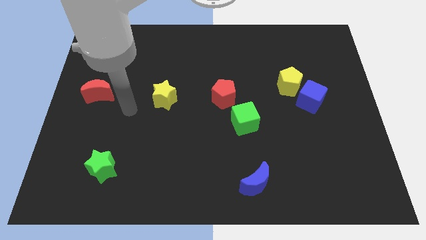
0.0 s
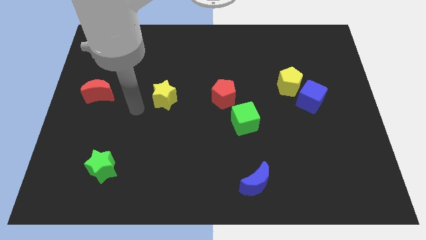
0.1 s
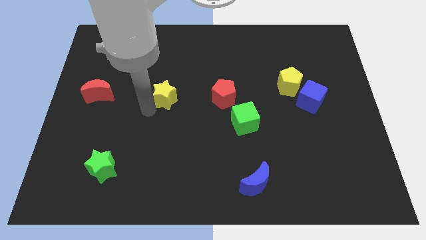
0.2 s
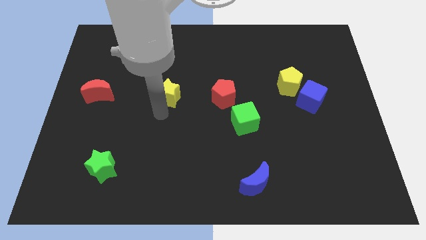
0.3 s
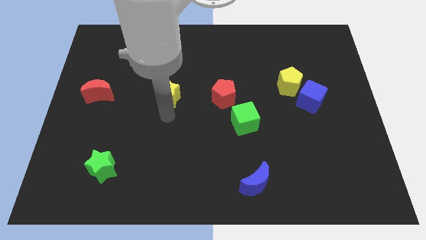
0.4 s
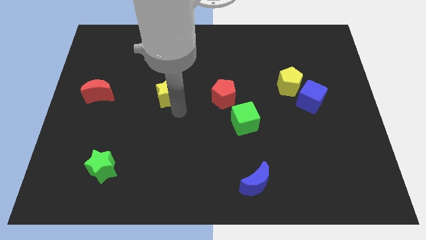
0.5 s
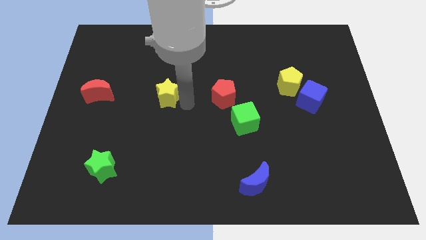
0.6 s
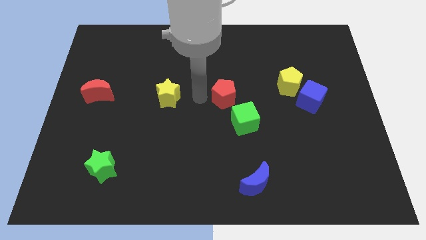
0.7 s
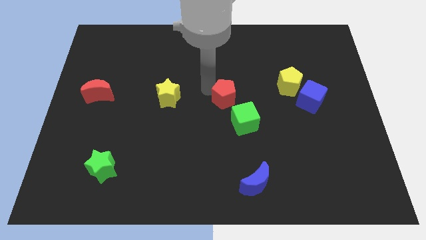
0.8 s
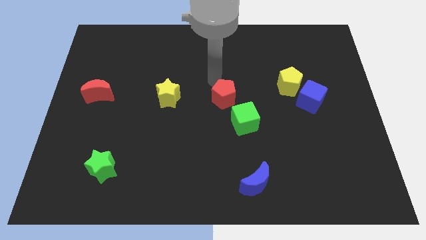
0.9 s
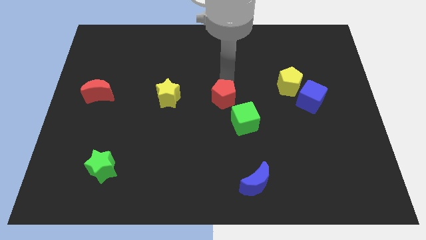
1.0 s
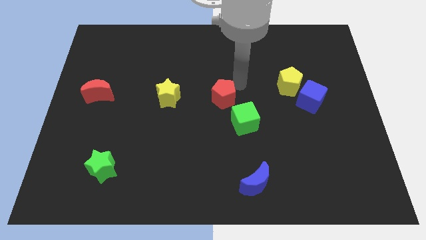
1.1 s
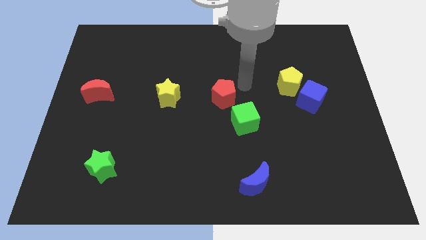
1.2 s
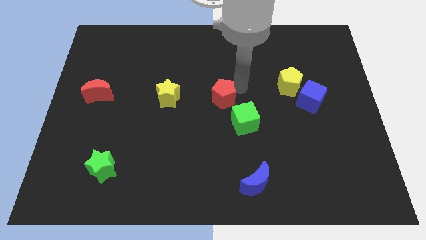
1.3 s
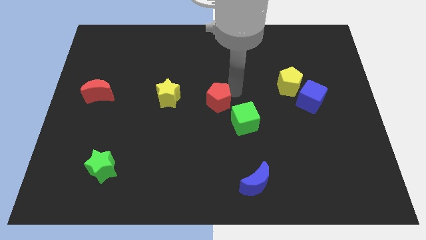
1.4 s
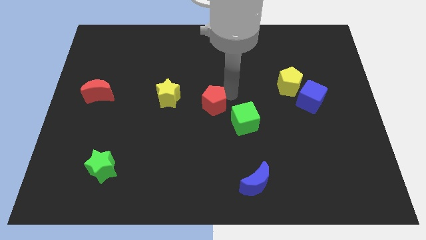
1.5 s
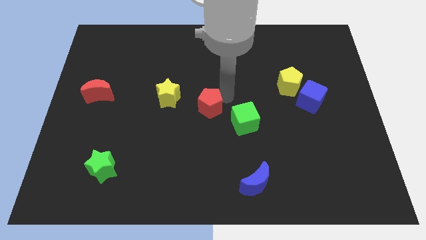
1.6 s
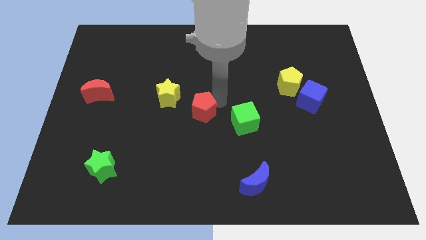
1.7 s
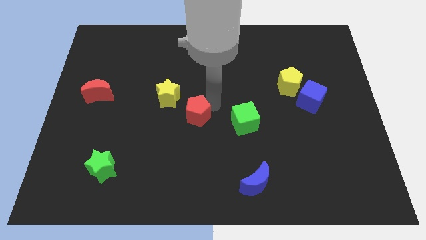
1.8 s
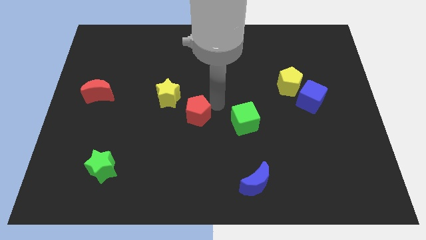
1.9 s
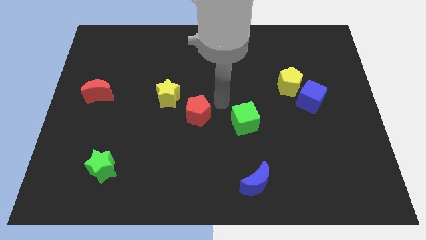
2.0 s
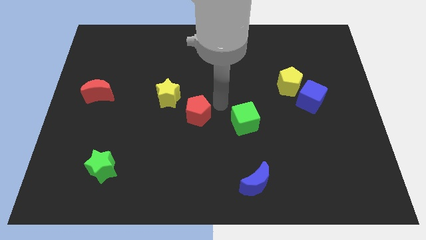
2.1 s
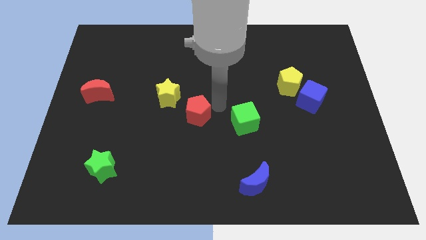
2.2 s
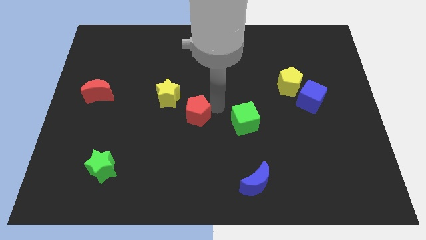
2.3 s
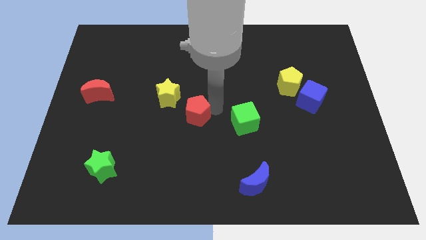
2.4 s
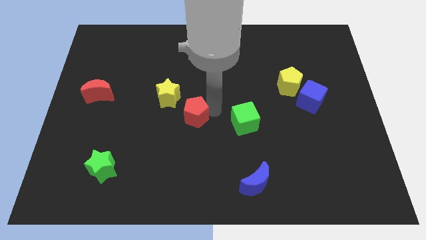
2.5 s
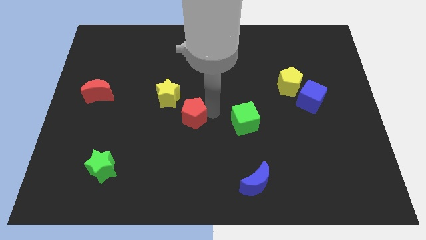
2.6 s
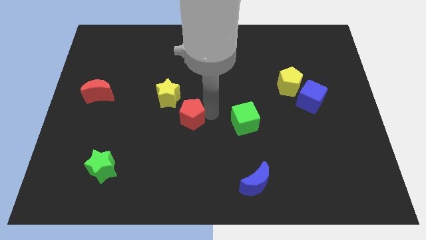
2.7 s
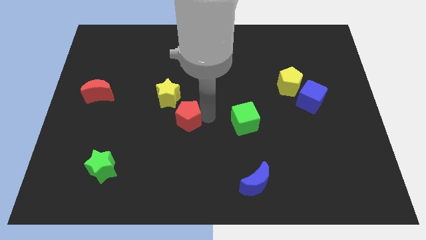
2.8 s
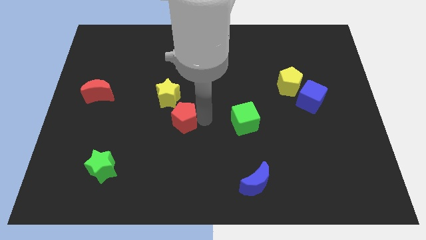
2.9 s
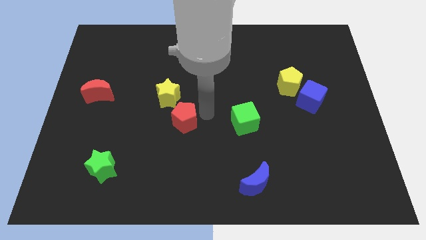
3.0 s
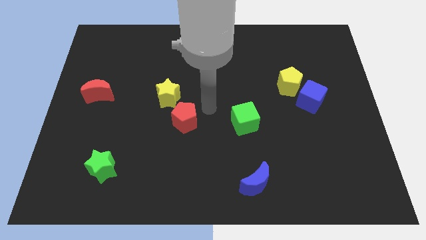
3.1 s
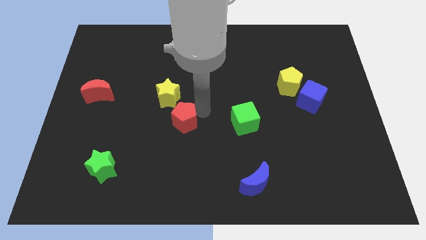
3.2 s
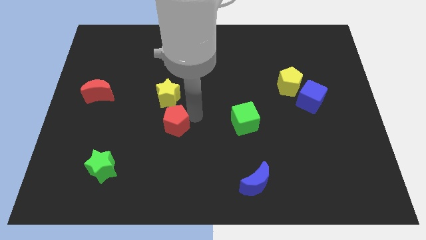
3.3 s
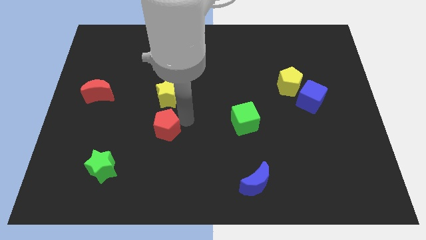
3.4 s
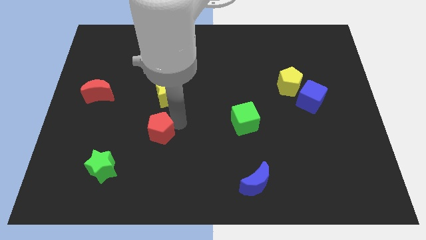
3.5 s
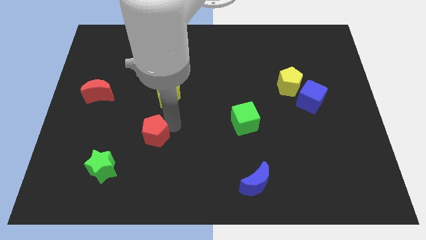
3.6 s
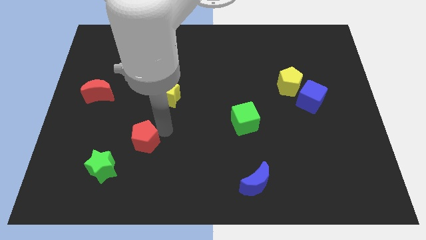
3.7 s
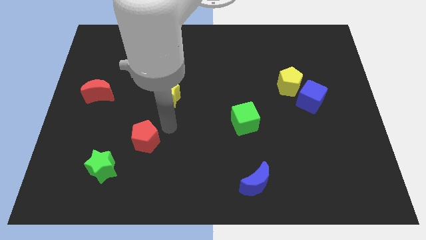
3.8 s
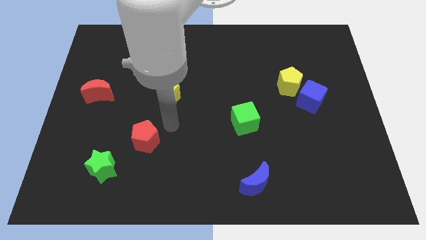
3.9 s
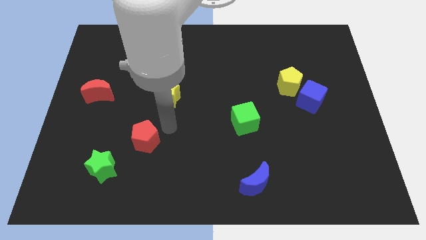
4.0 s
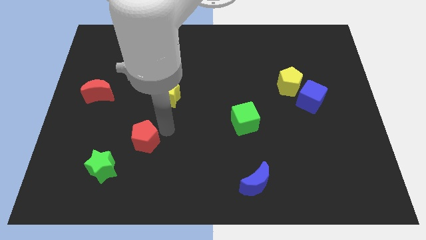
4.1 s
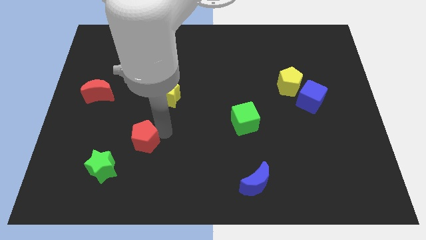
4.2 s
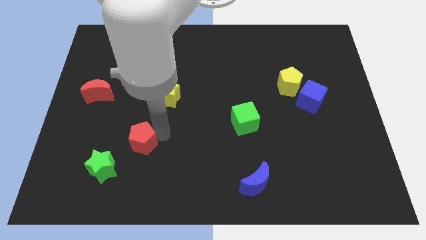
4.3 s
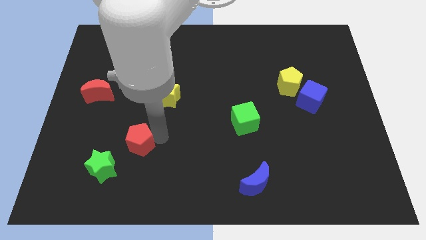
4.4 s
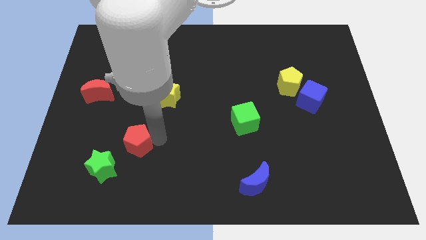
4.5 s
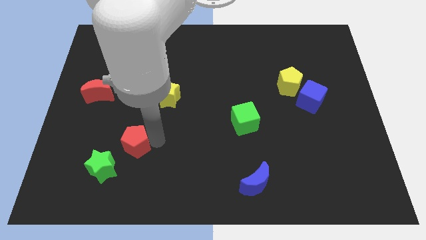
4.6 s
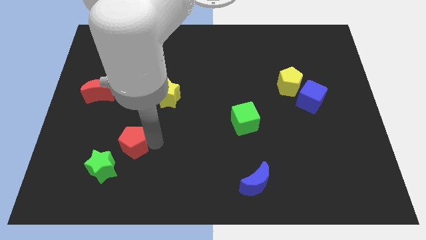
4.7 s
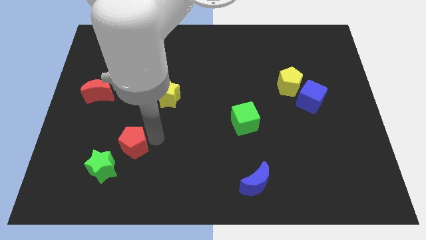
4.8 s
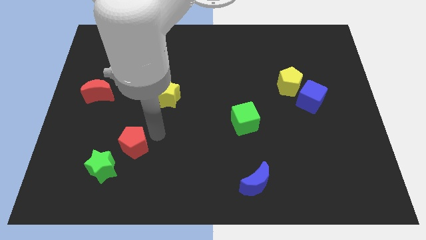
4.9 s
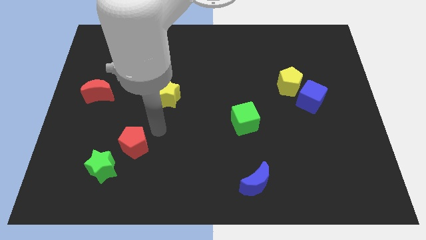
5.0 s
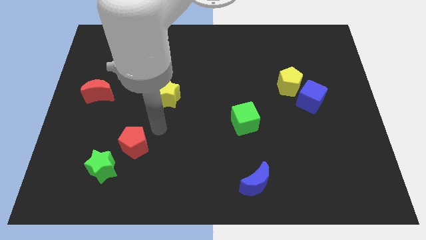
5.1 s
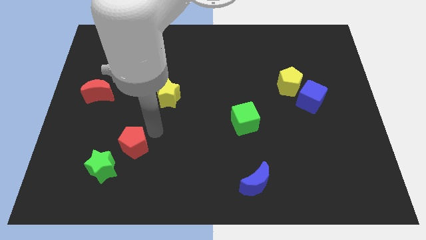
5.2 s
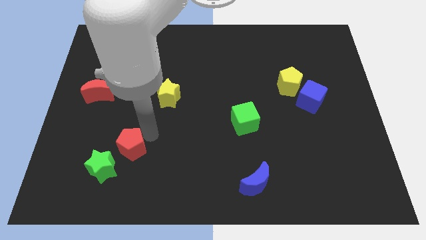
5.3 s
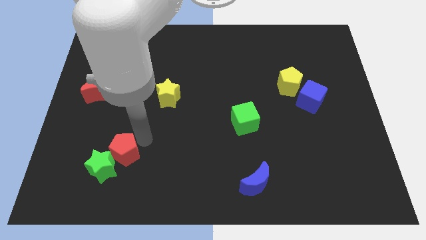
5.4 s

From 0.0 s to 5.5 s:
slide the red pentagon to the green star

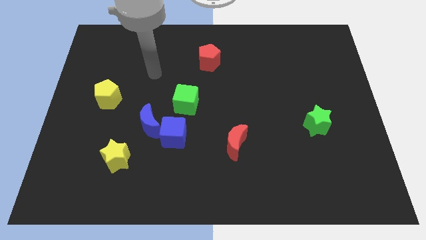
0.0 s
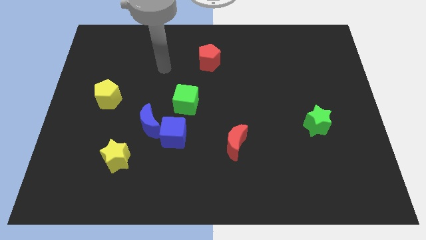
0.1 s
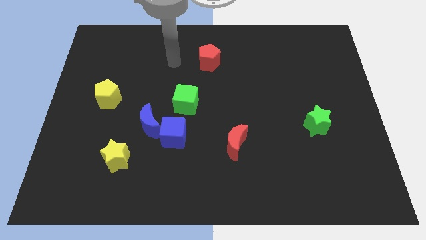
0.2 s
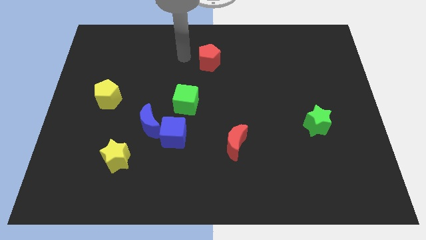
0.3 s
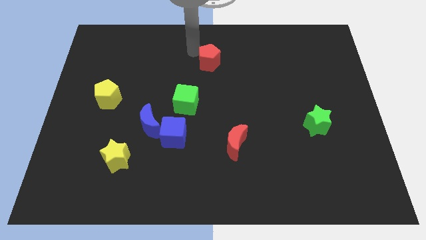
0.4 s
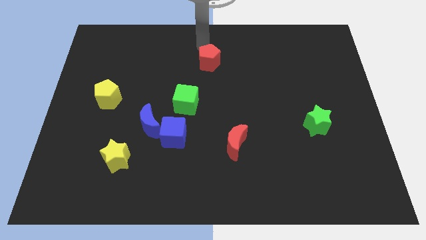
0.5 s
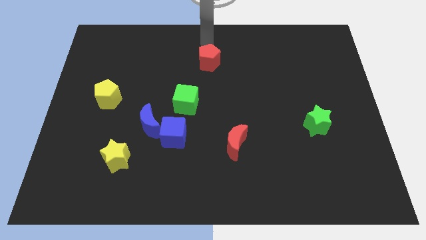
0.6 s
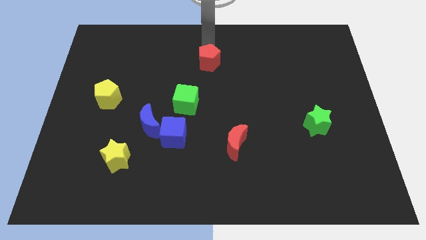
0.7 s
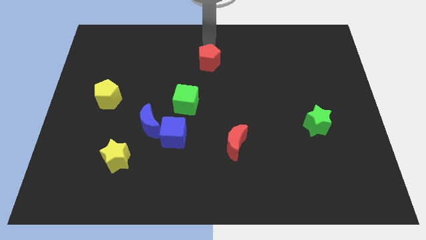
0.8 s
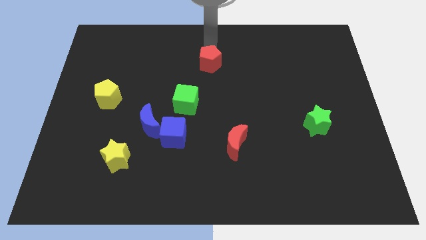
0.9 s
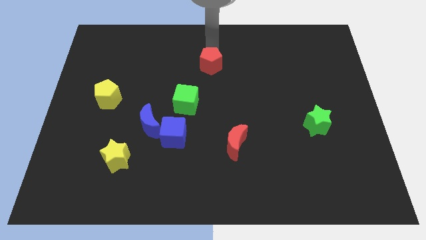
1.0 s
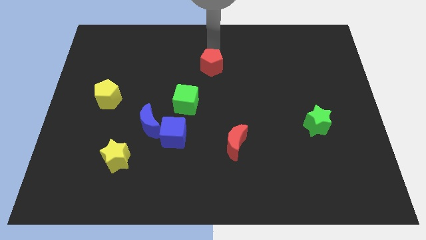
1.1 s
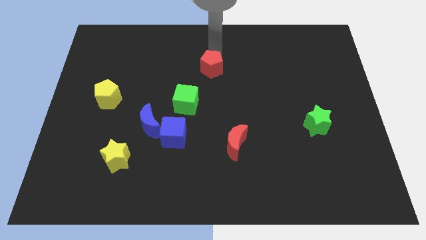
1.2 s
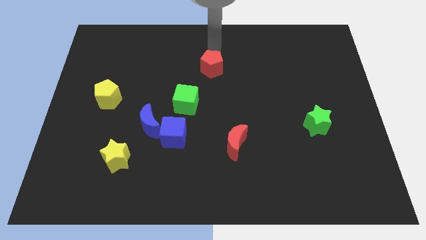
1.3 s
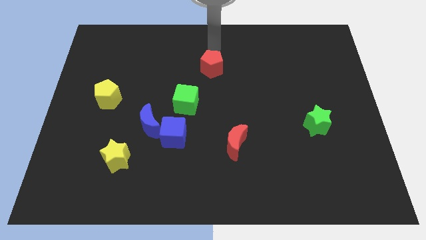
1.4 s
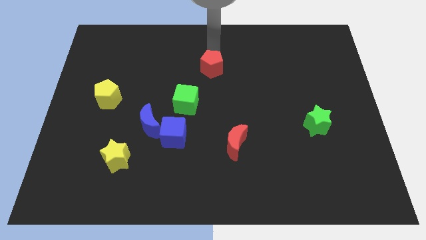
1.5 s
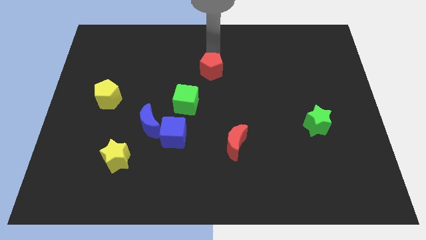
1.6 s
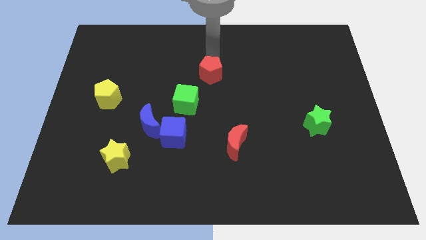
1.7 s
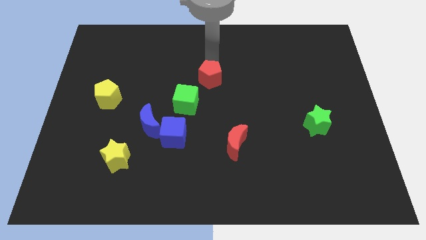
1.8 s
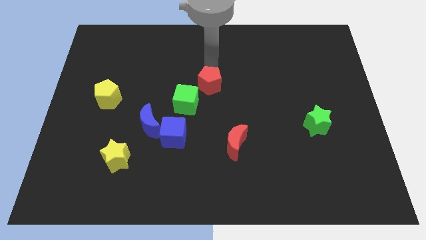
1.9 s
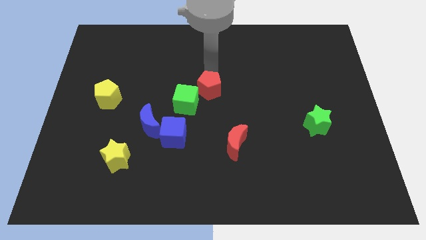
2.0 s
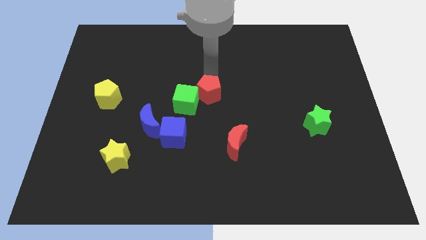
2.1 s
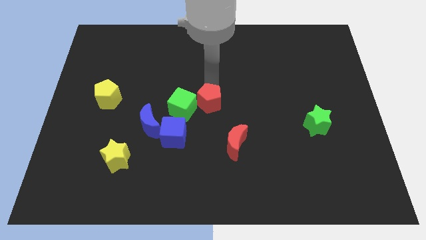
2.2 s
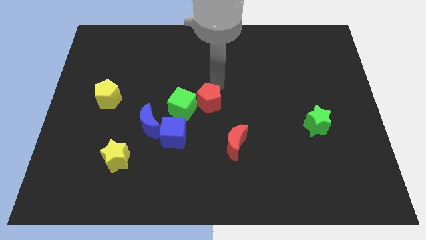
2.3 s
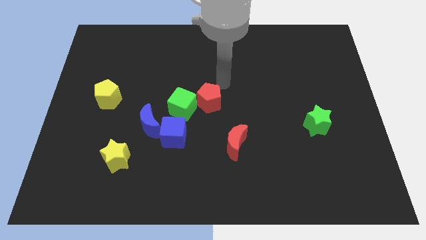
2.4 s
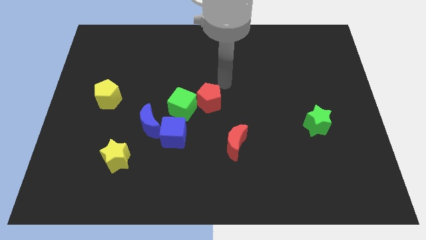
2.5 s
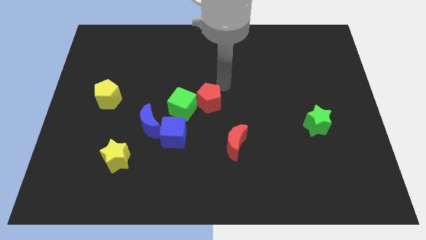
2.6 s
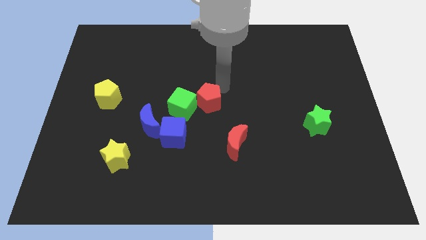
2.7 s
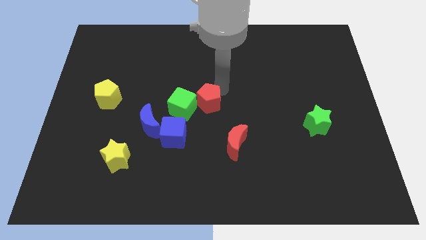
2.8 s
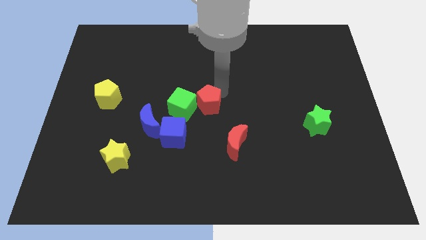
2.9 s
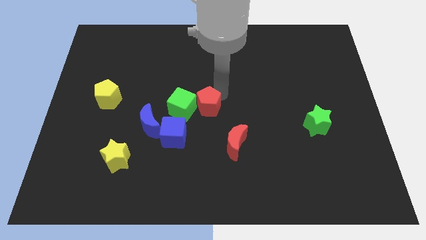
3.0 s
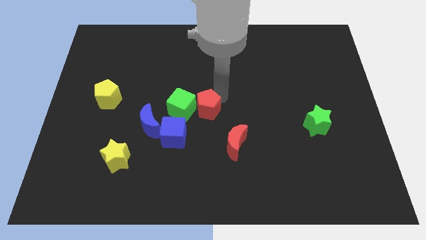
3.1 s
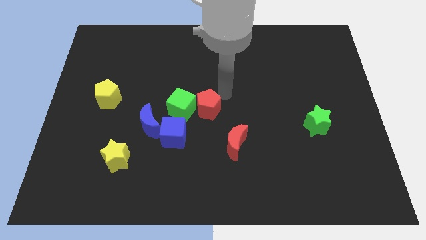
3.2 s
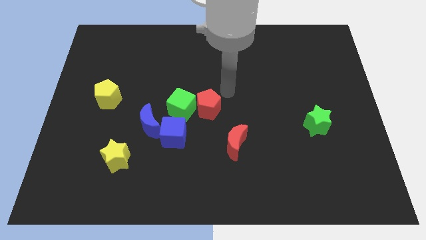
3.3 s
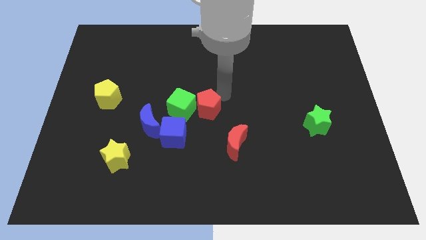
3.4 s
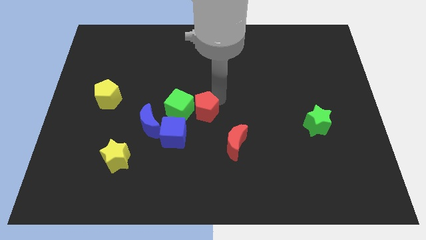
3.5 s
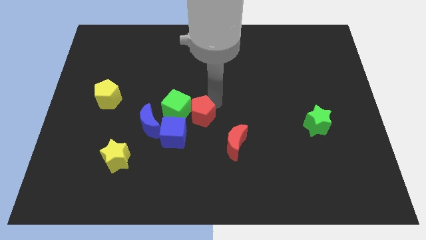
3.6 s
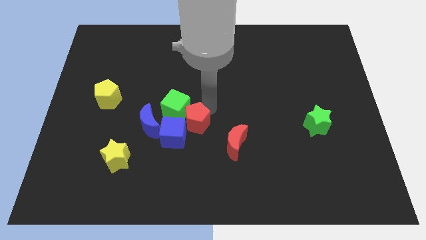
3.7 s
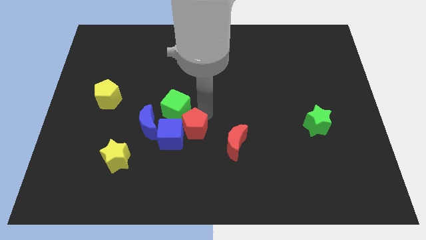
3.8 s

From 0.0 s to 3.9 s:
move the red pentagon to the blue cube
